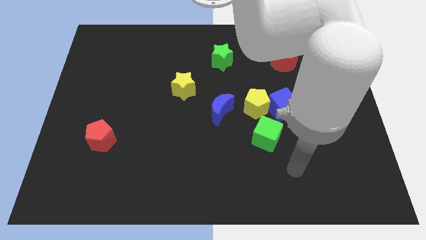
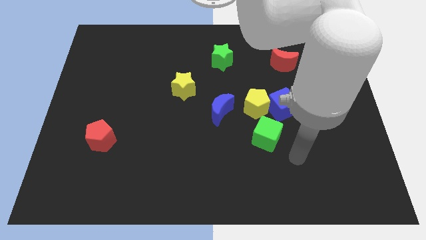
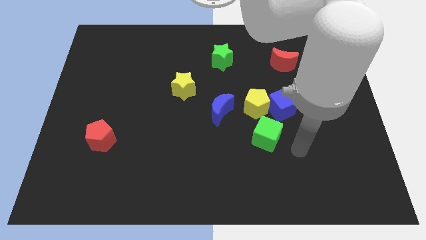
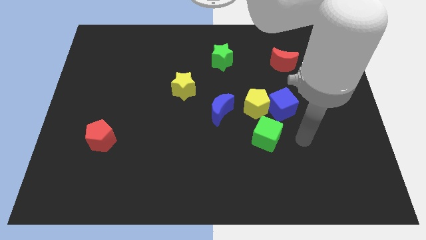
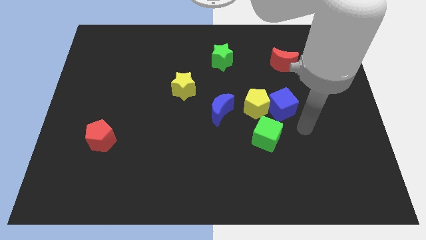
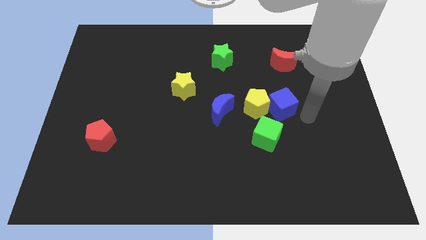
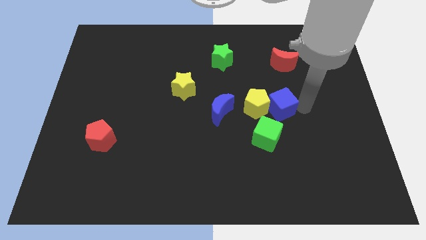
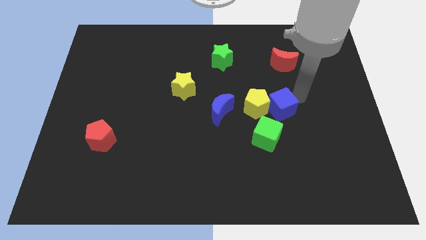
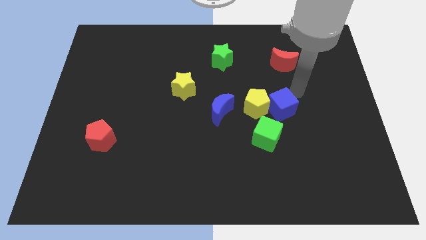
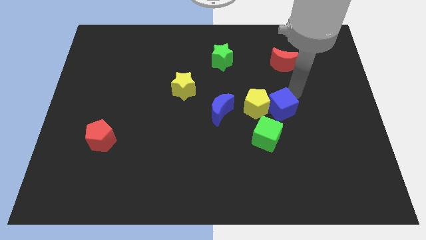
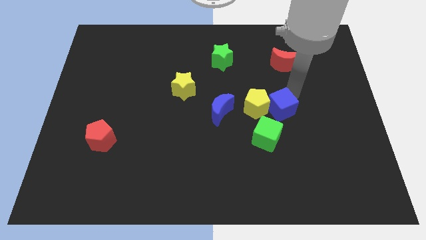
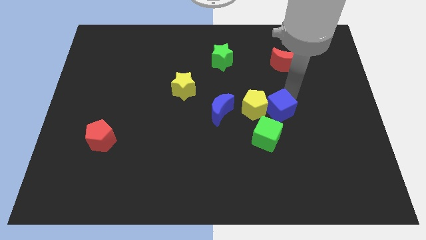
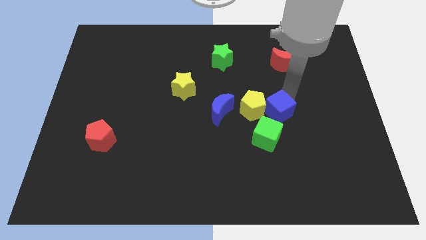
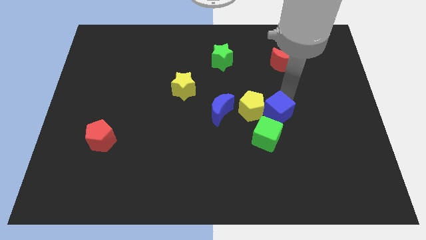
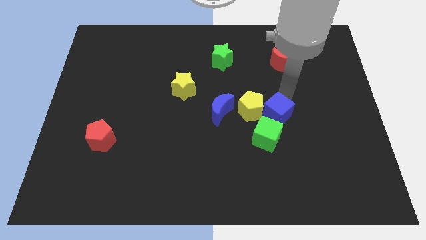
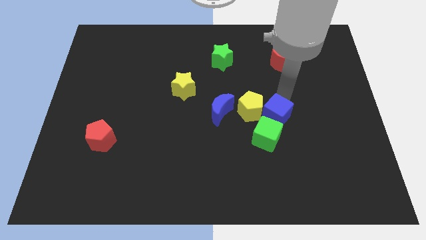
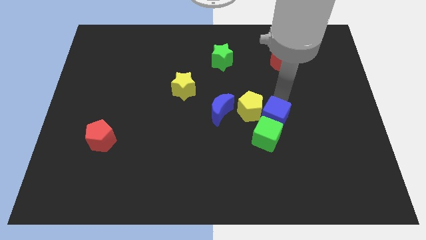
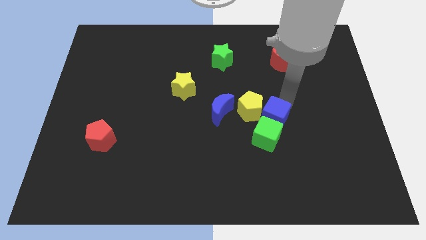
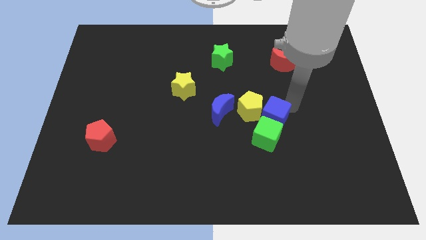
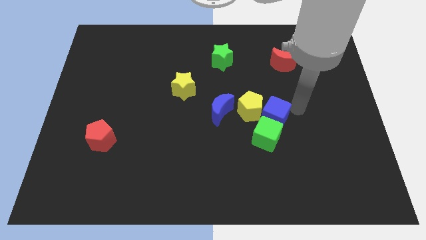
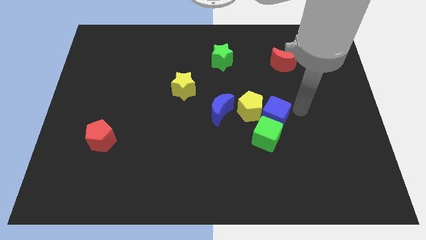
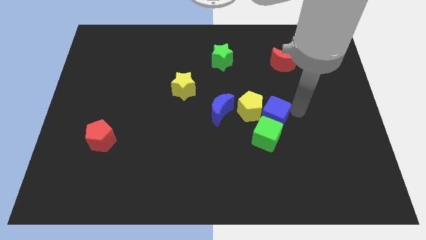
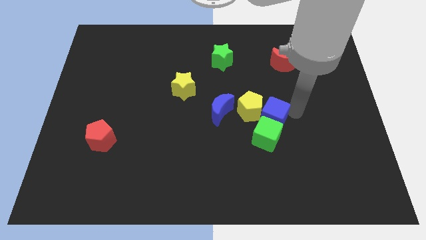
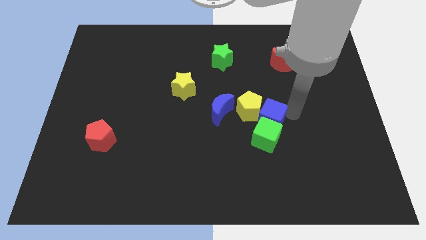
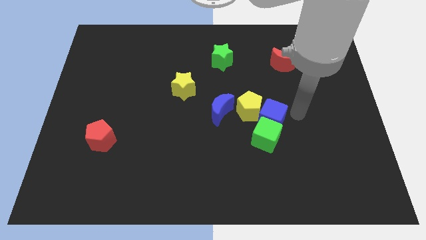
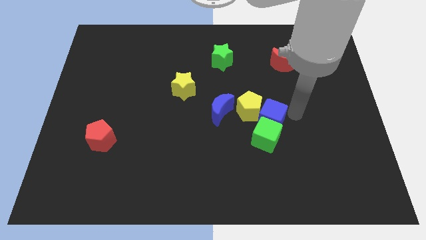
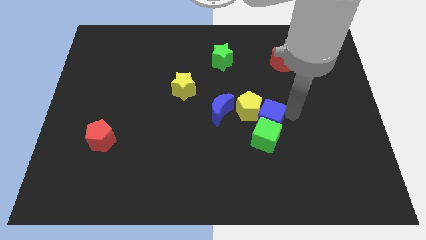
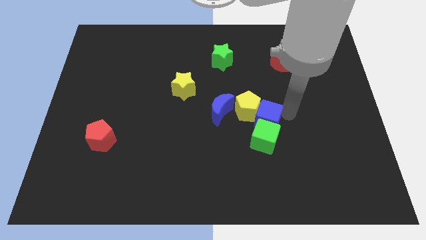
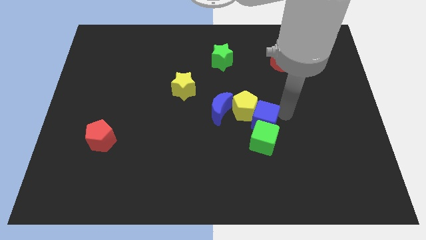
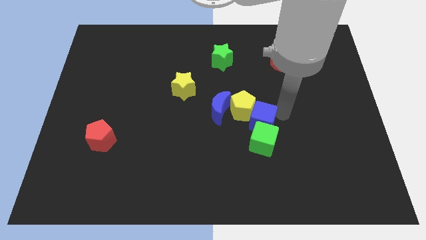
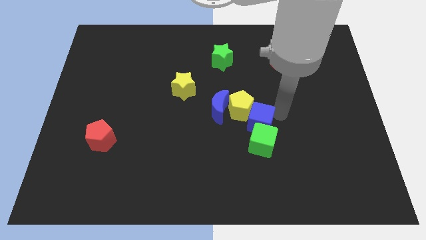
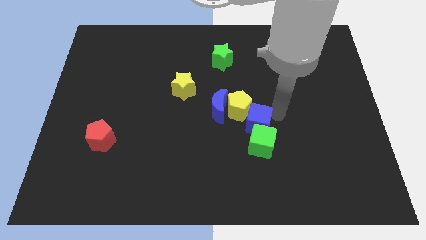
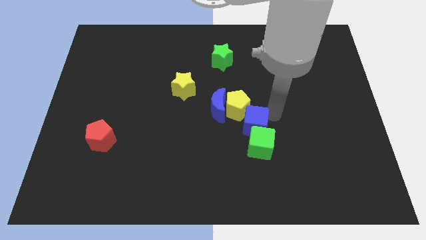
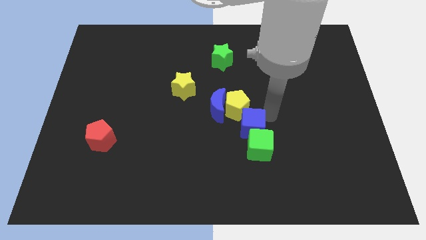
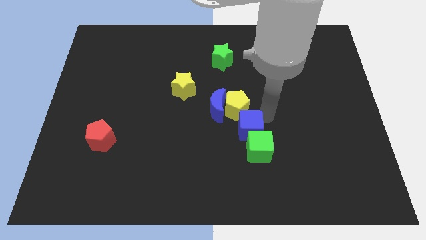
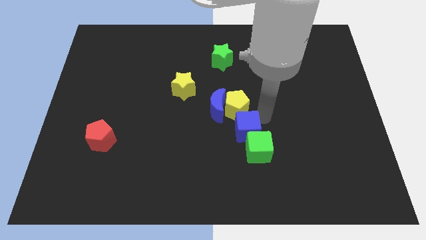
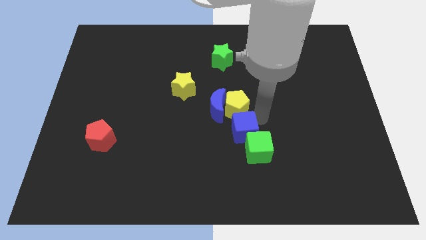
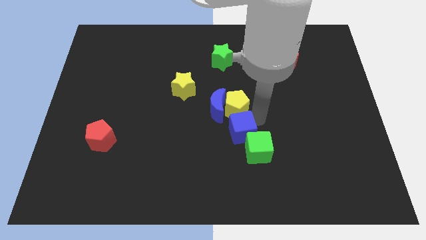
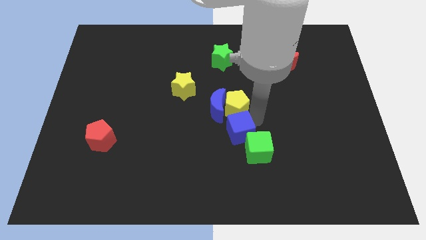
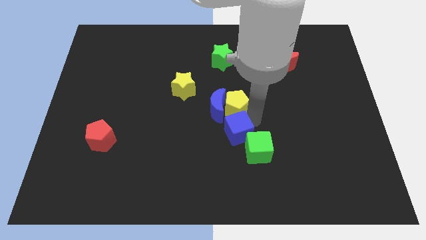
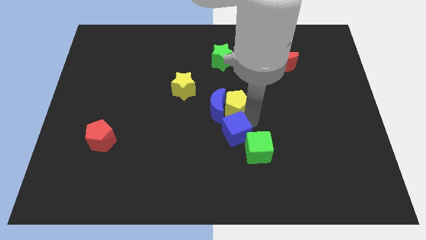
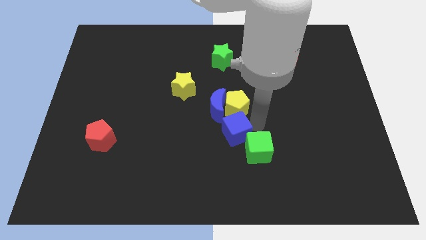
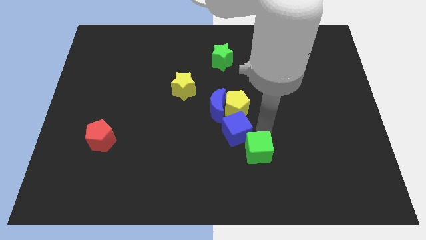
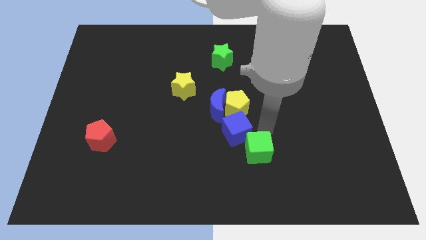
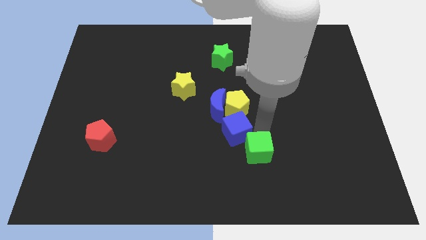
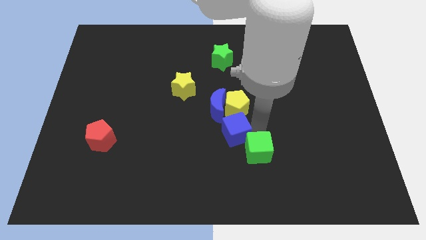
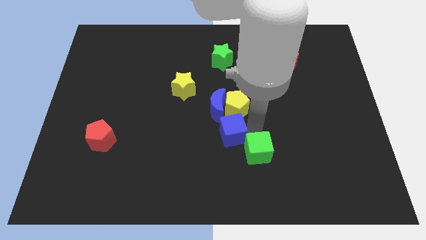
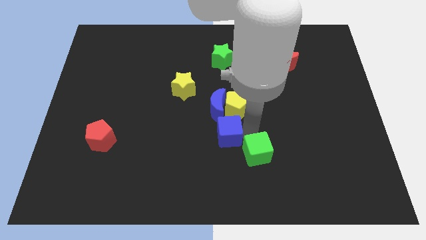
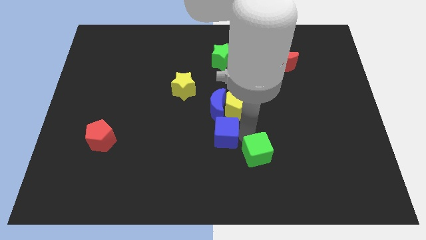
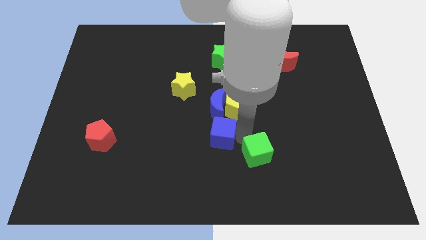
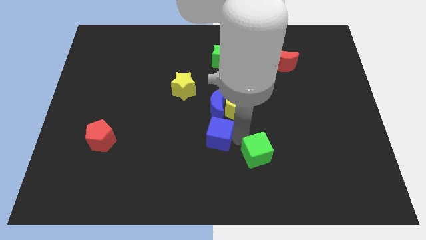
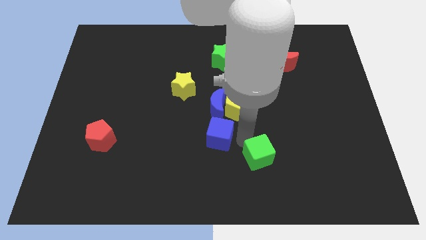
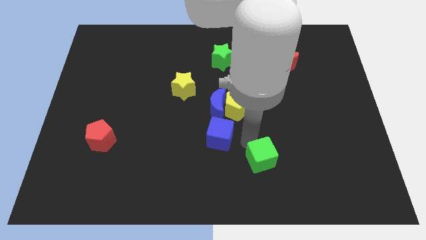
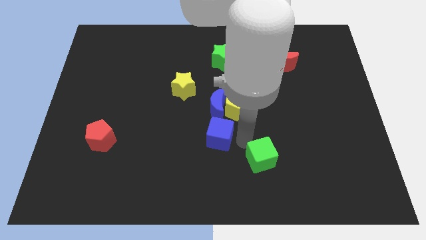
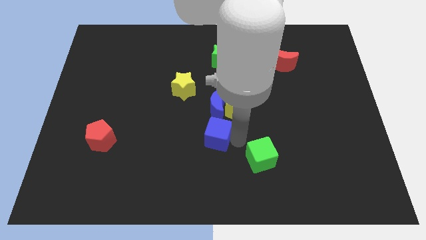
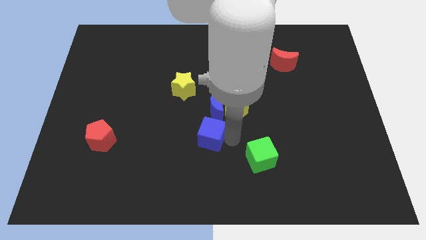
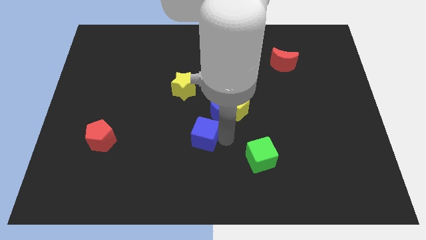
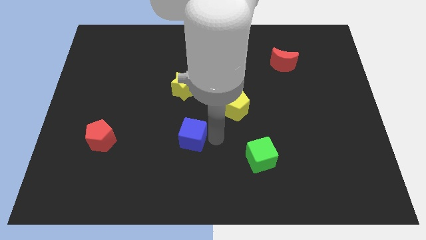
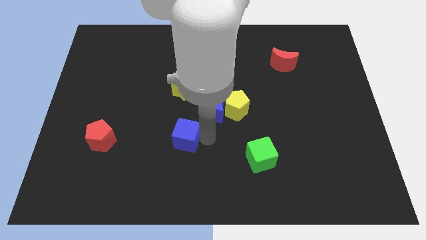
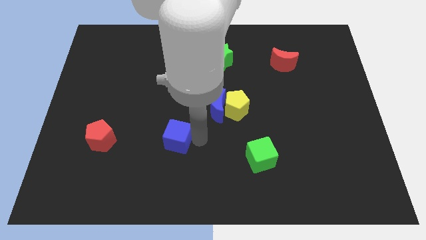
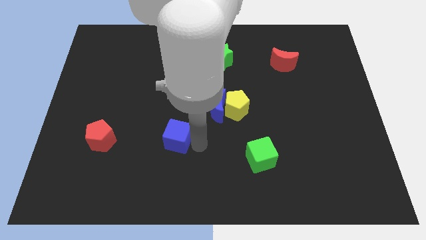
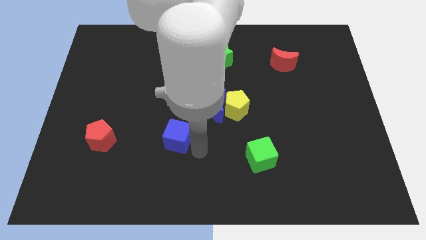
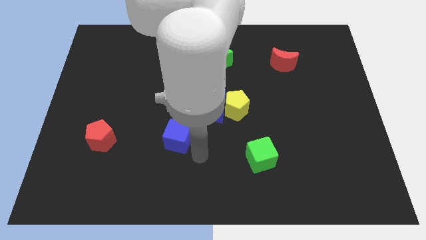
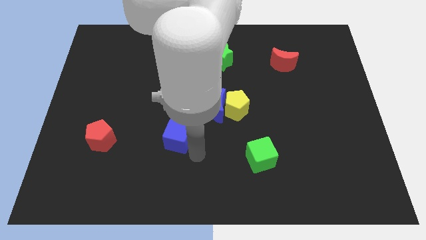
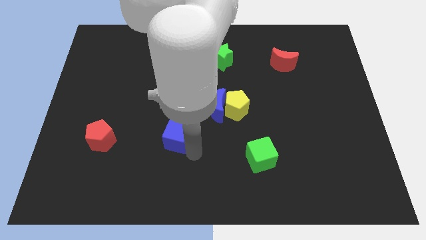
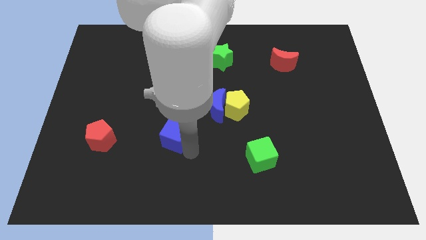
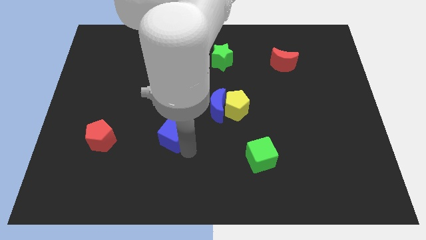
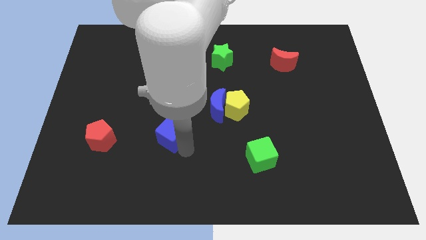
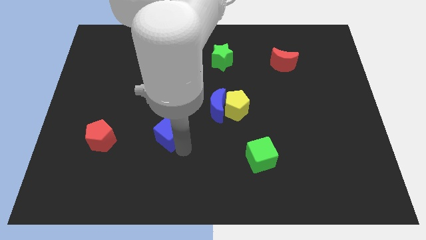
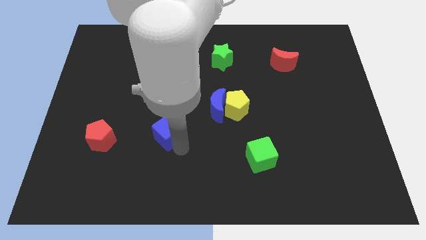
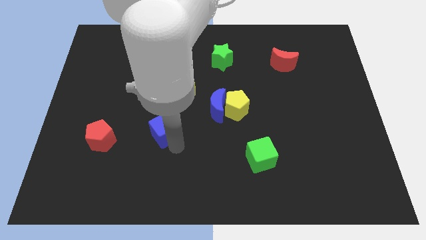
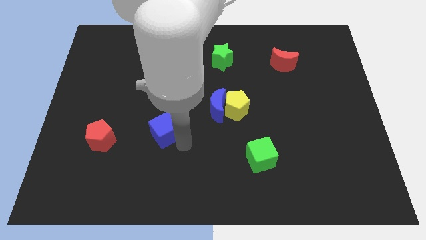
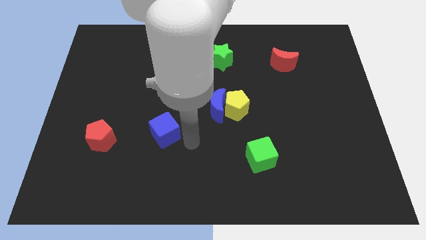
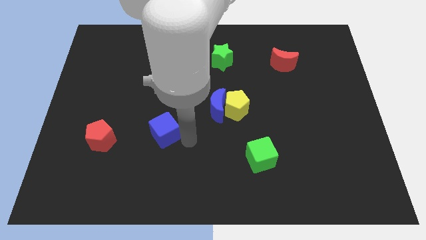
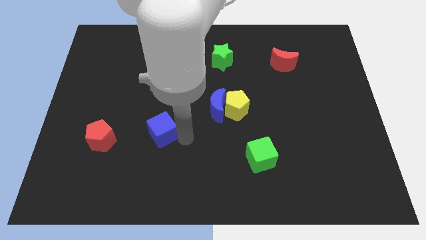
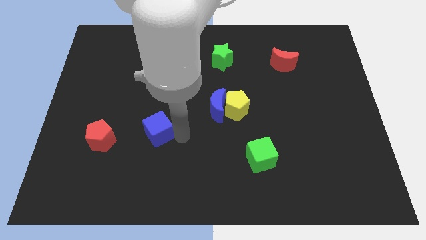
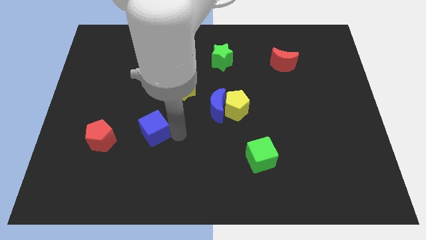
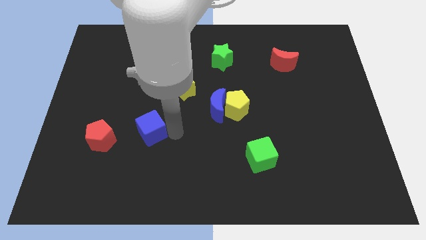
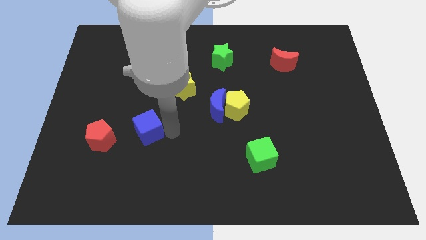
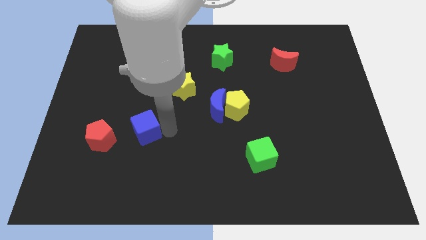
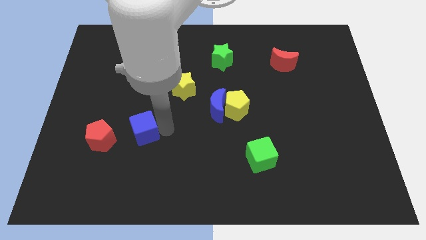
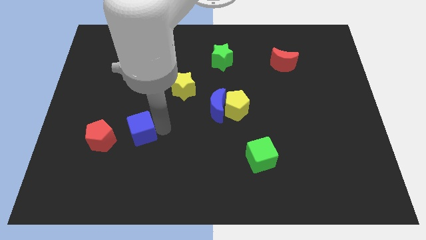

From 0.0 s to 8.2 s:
slide the blue cube diagonally up and to the right of the red pentagon
